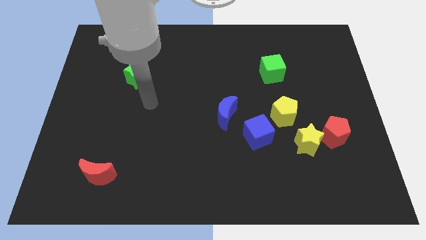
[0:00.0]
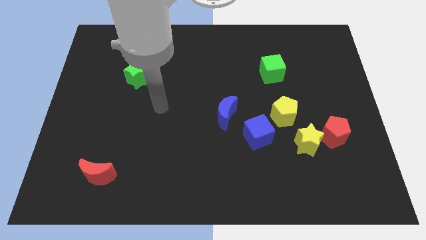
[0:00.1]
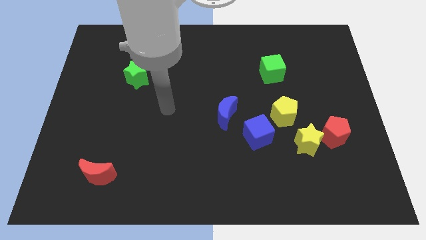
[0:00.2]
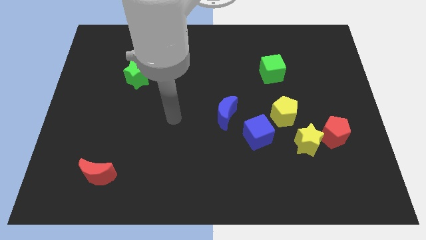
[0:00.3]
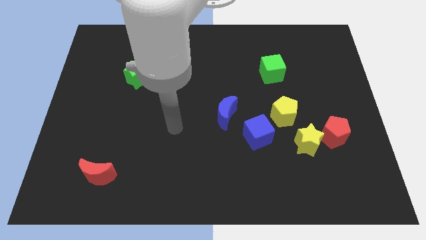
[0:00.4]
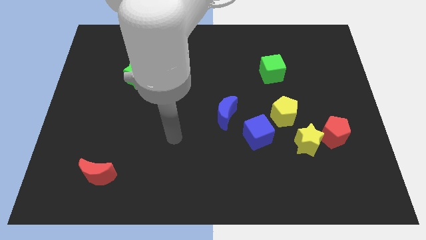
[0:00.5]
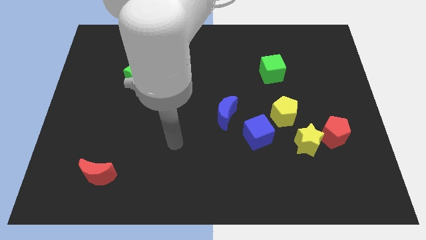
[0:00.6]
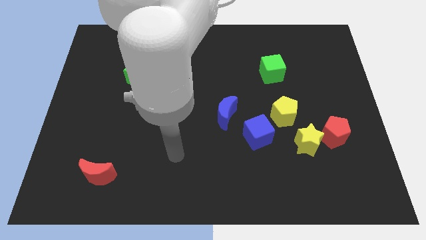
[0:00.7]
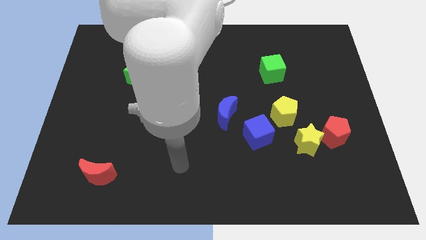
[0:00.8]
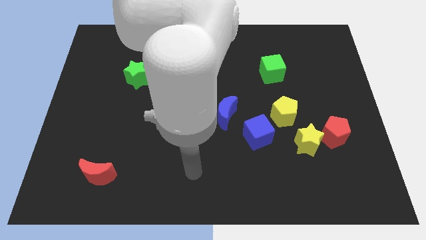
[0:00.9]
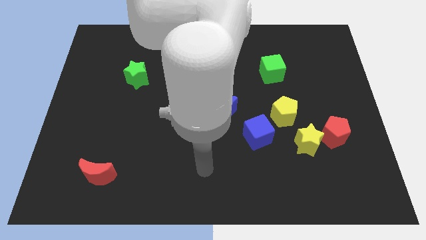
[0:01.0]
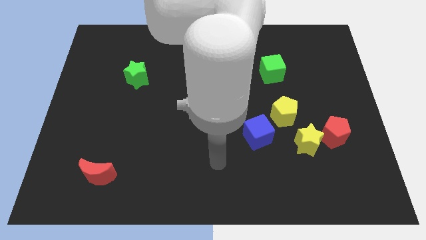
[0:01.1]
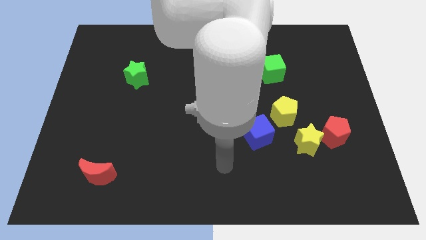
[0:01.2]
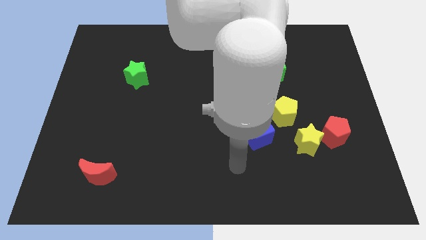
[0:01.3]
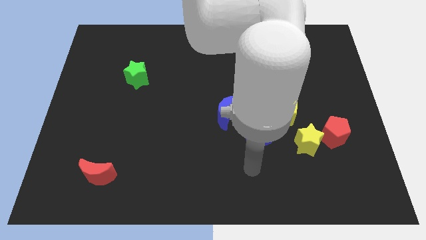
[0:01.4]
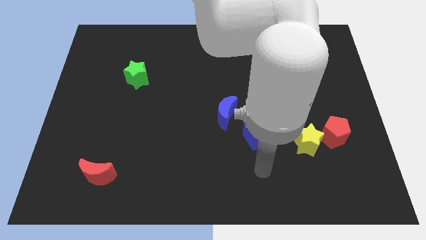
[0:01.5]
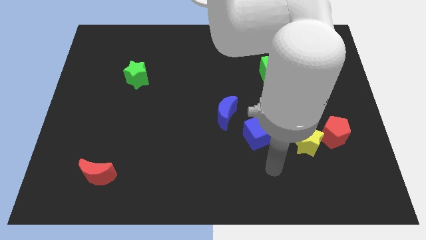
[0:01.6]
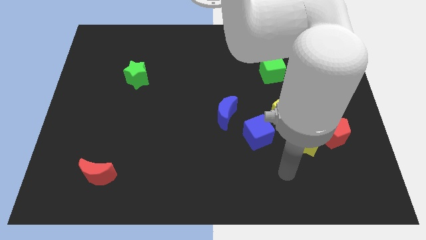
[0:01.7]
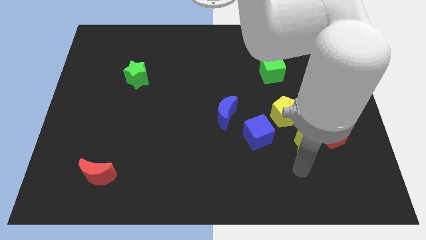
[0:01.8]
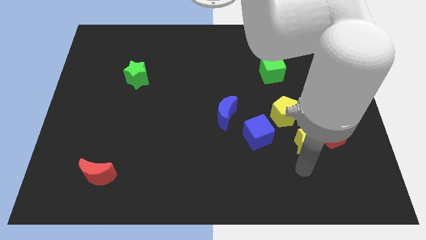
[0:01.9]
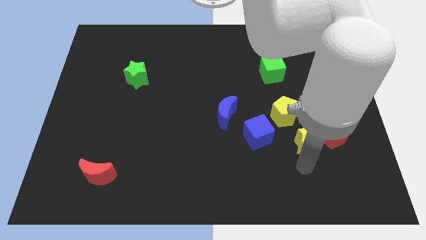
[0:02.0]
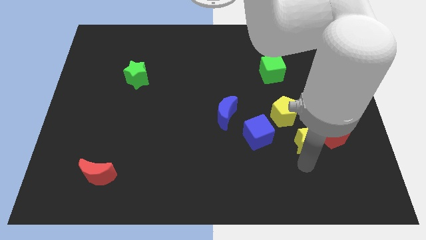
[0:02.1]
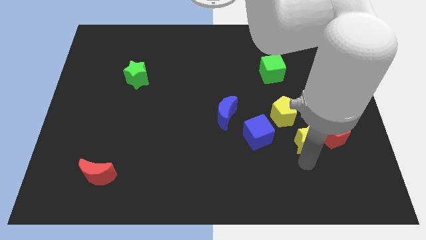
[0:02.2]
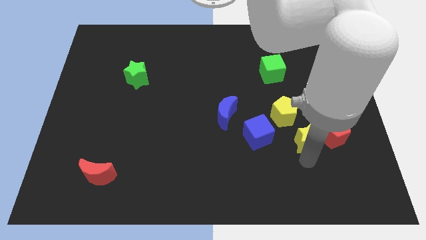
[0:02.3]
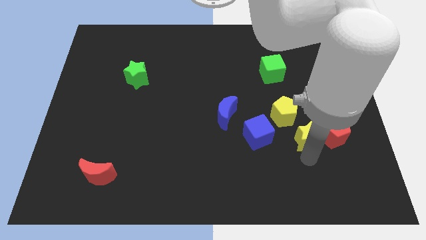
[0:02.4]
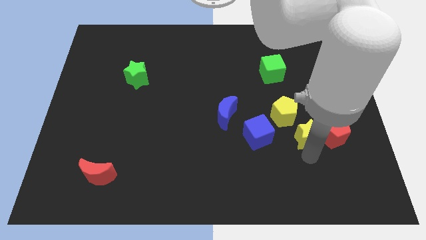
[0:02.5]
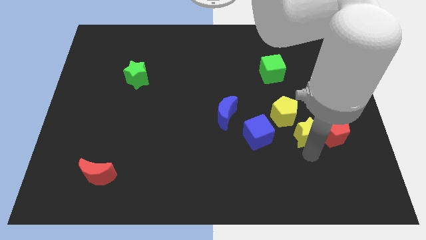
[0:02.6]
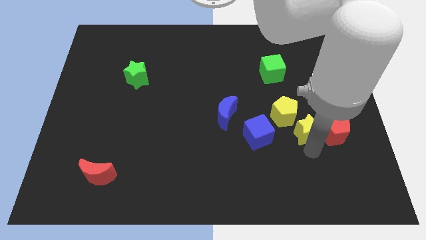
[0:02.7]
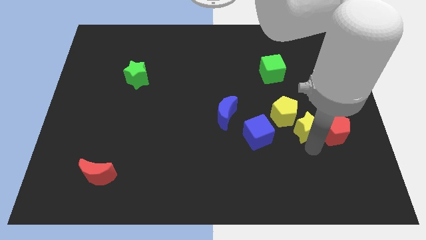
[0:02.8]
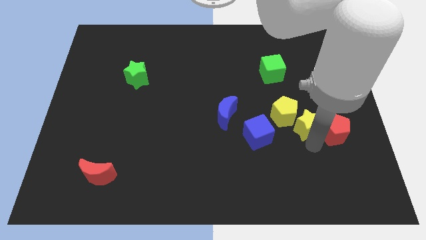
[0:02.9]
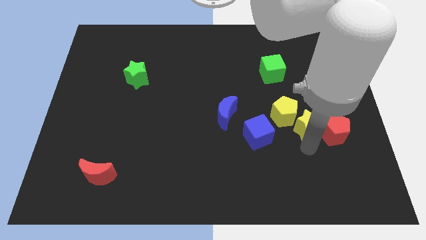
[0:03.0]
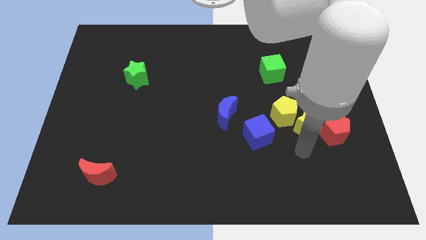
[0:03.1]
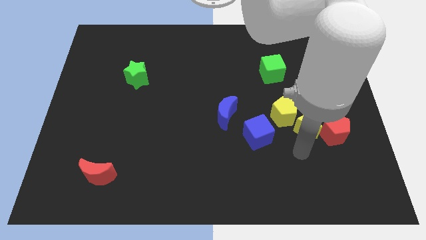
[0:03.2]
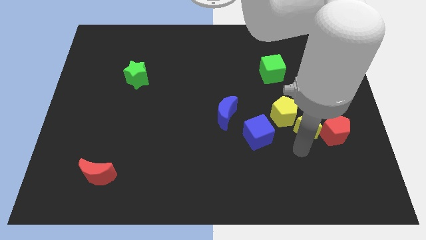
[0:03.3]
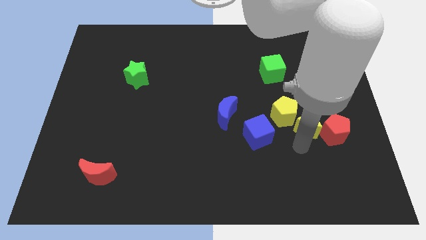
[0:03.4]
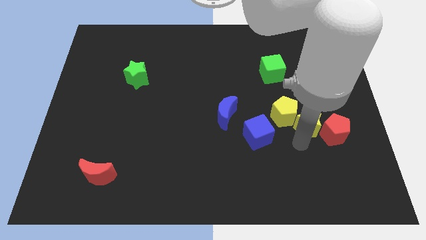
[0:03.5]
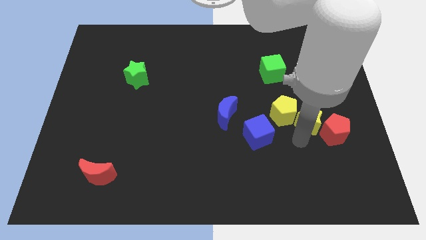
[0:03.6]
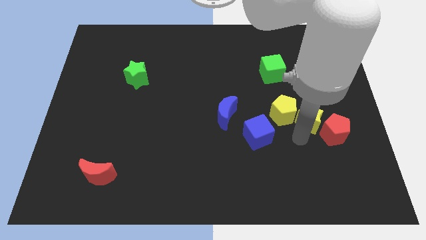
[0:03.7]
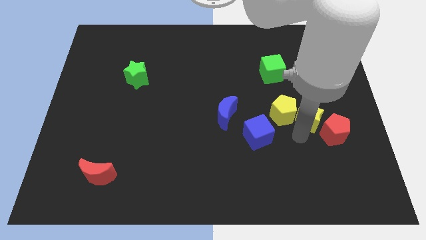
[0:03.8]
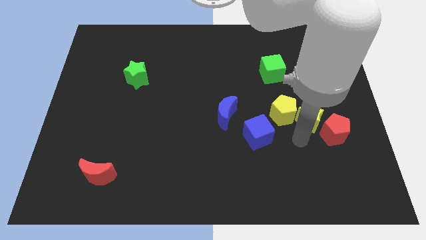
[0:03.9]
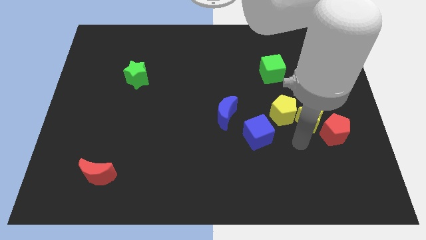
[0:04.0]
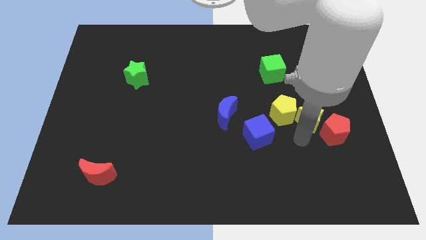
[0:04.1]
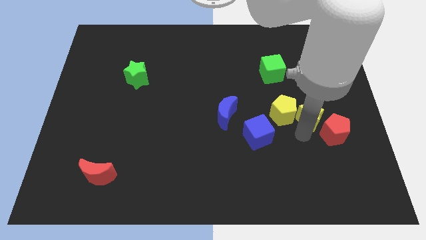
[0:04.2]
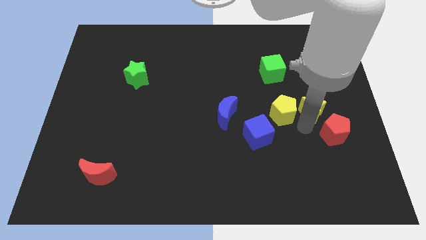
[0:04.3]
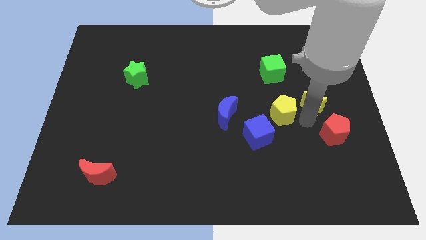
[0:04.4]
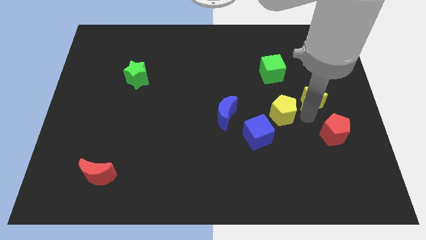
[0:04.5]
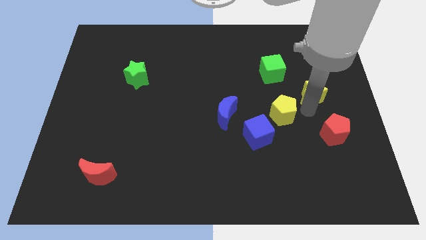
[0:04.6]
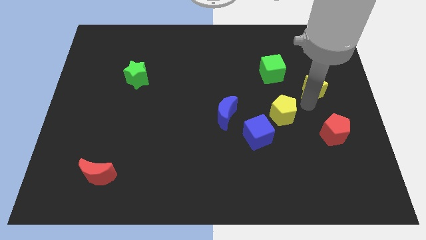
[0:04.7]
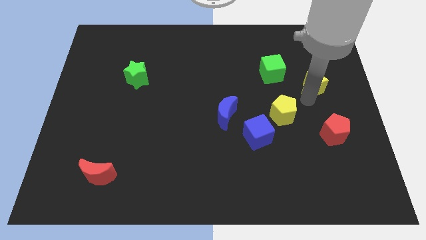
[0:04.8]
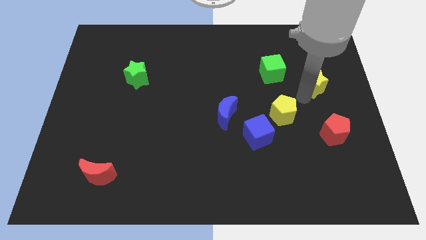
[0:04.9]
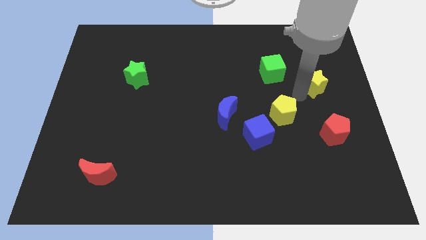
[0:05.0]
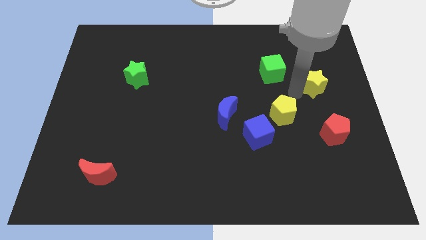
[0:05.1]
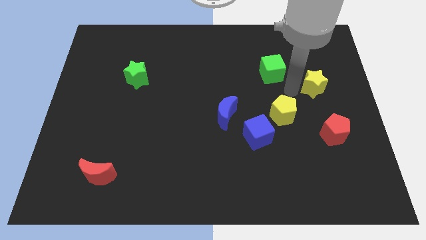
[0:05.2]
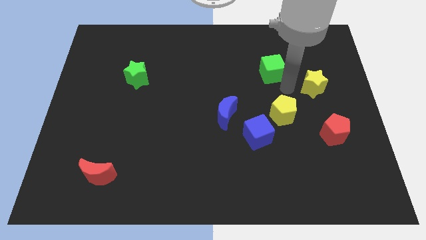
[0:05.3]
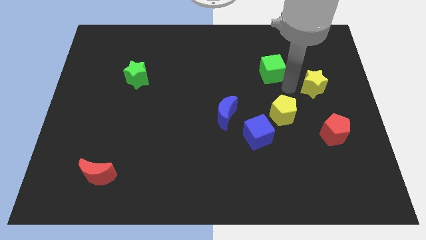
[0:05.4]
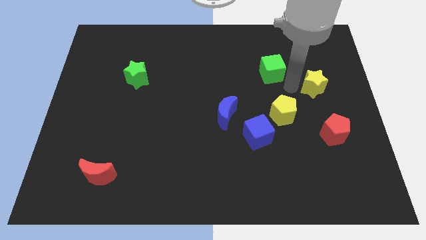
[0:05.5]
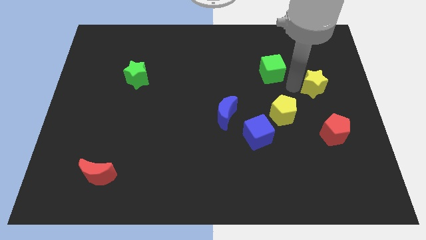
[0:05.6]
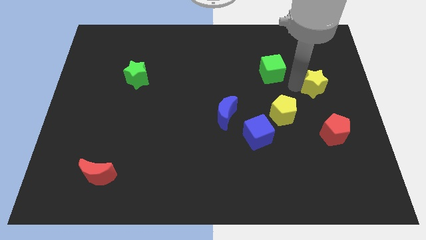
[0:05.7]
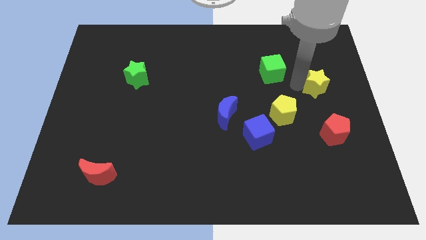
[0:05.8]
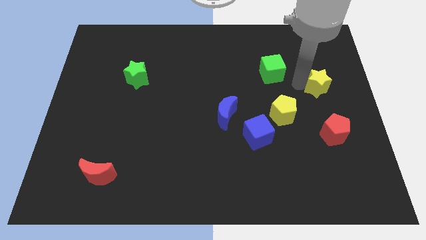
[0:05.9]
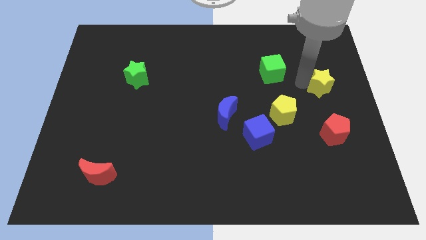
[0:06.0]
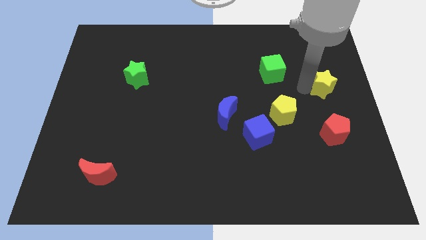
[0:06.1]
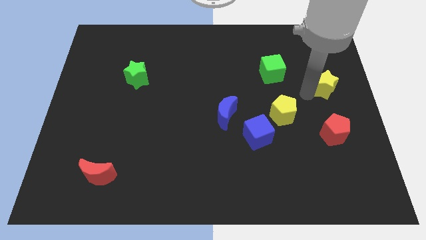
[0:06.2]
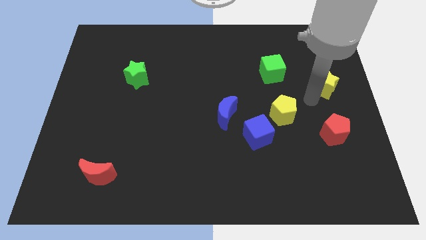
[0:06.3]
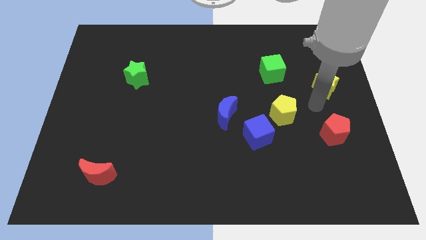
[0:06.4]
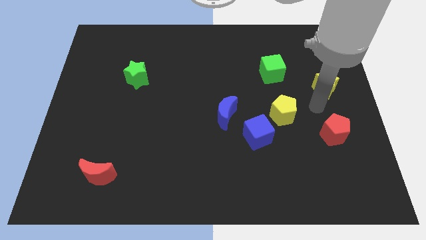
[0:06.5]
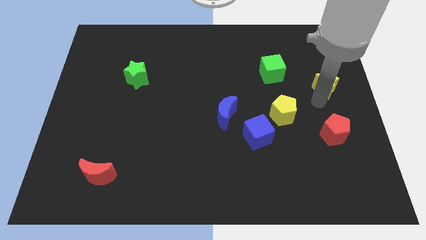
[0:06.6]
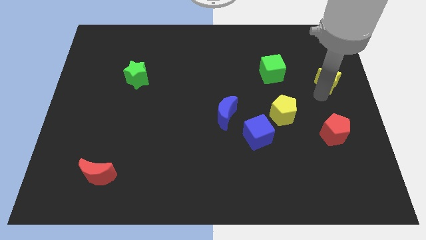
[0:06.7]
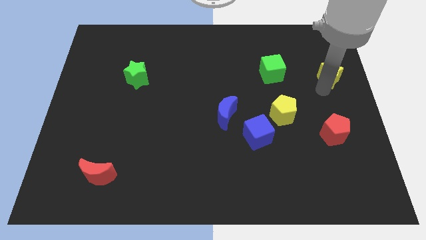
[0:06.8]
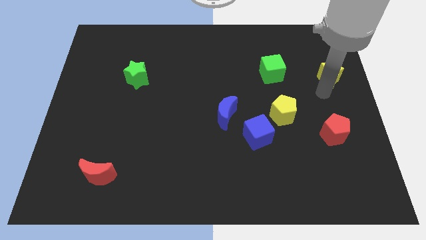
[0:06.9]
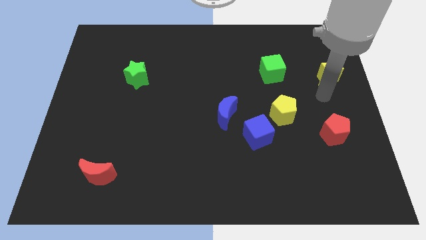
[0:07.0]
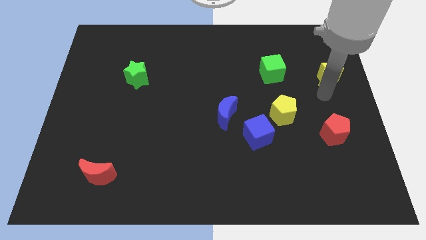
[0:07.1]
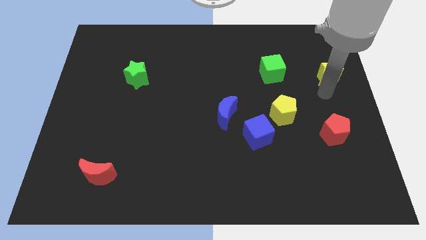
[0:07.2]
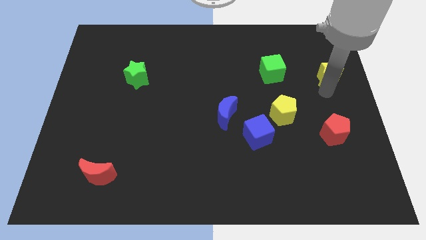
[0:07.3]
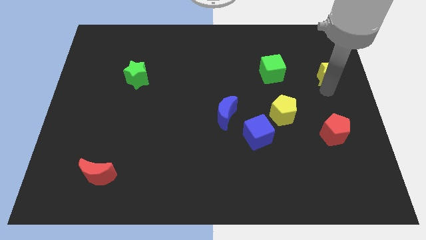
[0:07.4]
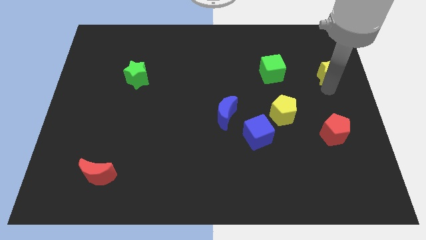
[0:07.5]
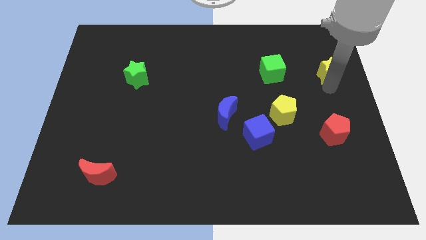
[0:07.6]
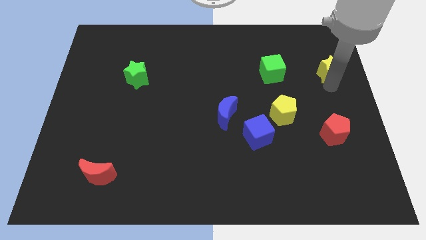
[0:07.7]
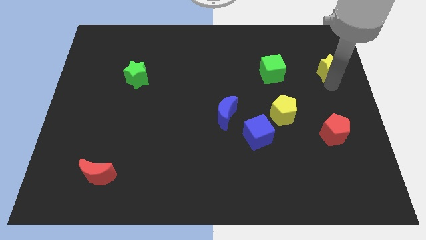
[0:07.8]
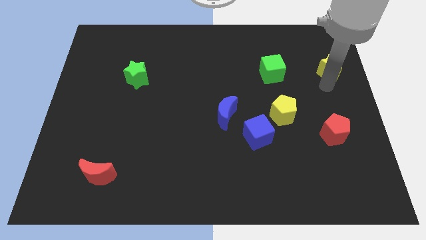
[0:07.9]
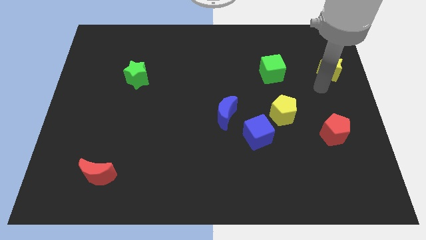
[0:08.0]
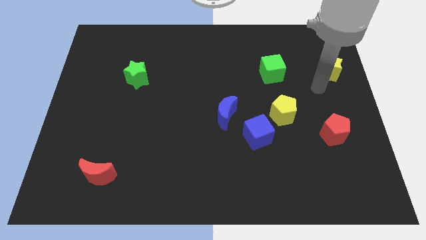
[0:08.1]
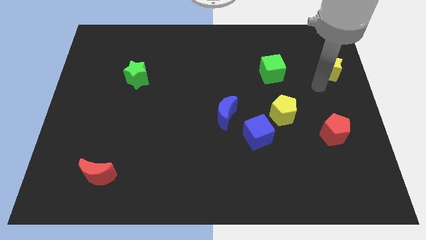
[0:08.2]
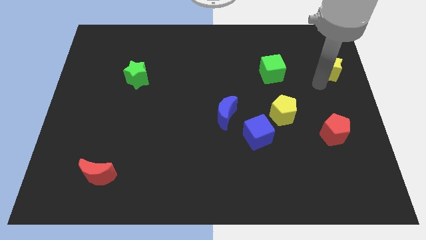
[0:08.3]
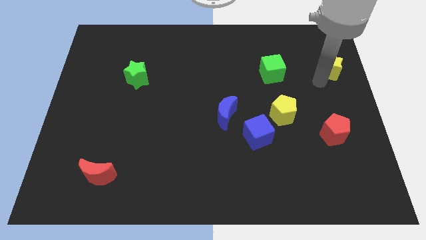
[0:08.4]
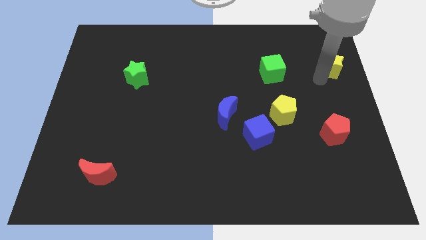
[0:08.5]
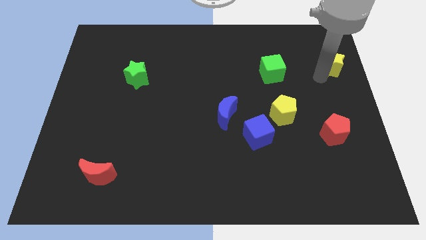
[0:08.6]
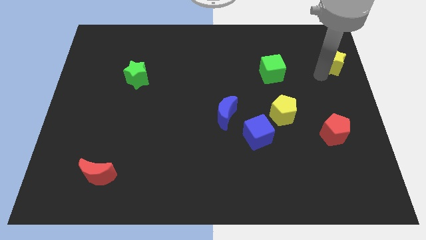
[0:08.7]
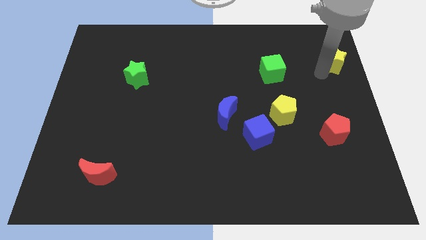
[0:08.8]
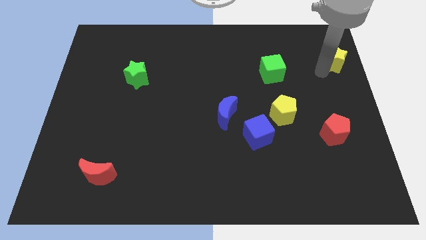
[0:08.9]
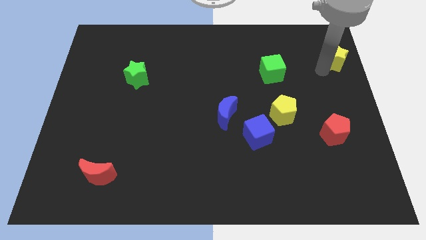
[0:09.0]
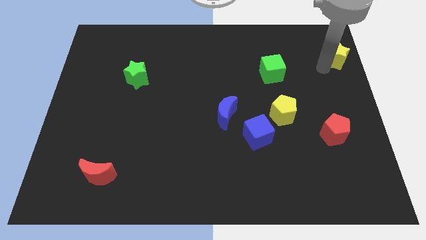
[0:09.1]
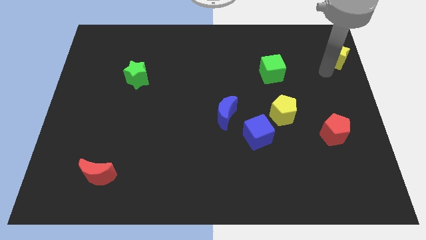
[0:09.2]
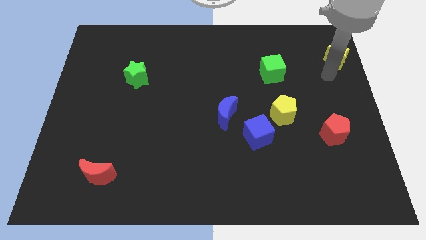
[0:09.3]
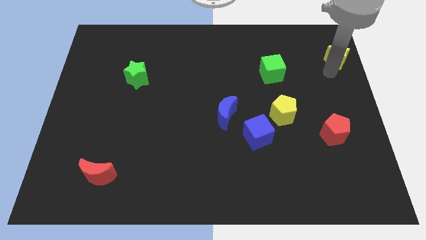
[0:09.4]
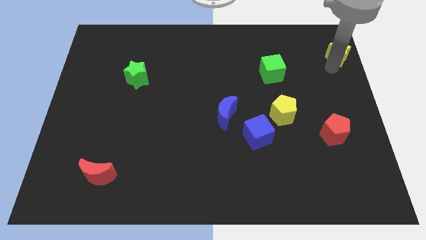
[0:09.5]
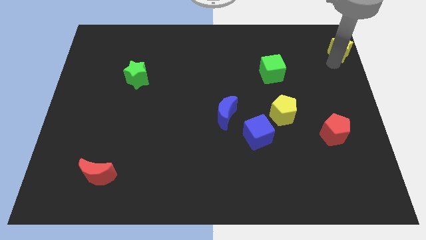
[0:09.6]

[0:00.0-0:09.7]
move the yellow star to the top right
